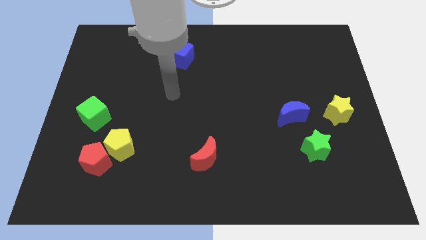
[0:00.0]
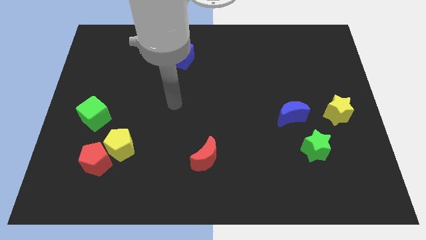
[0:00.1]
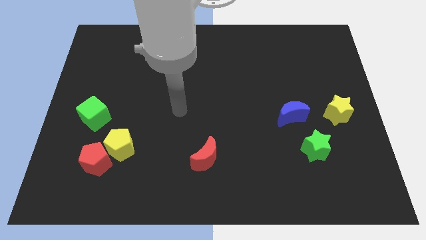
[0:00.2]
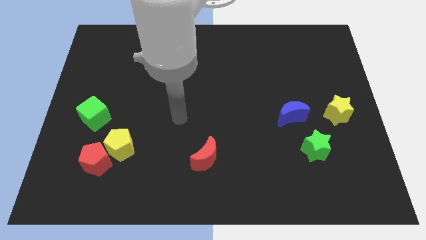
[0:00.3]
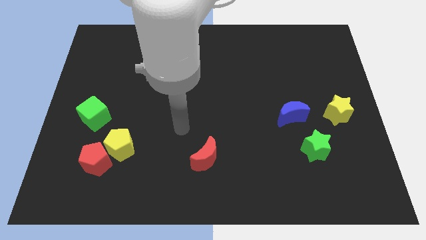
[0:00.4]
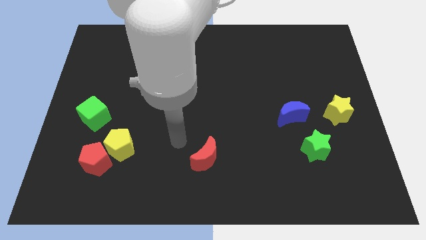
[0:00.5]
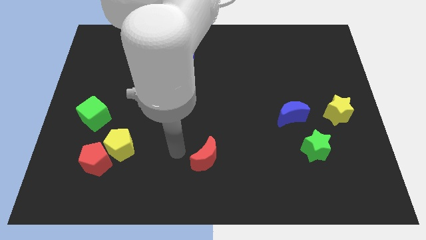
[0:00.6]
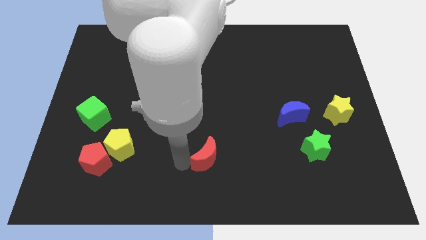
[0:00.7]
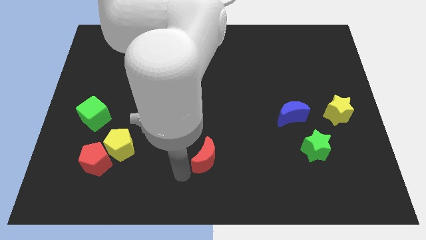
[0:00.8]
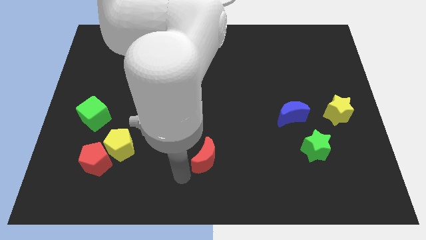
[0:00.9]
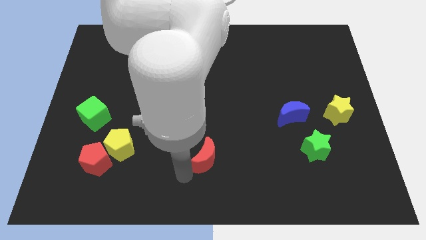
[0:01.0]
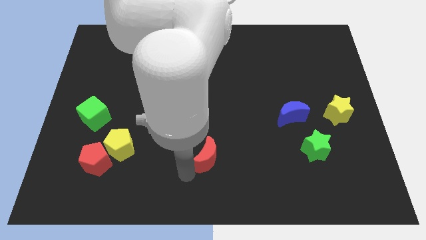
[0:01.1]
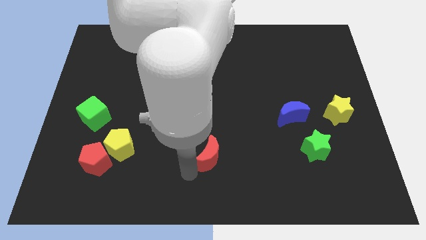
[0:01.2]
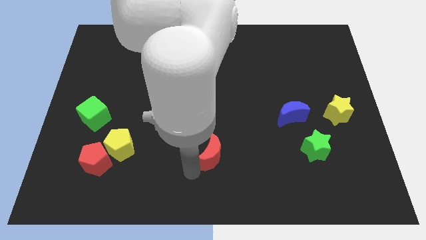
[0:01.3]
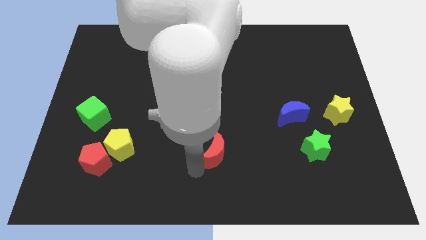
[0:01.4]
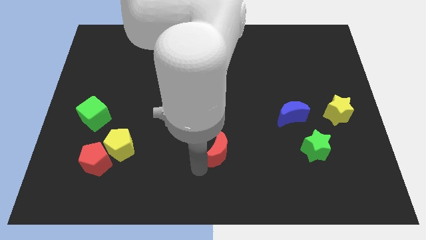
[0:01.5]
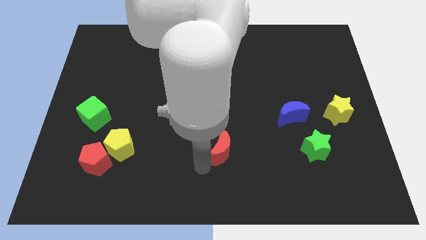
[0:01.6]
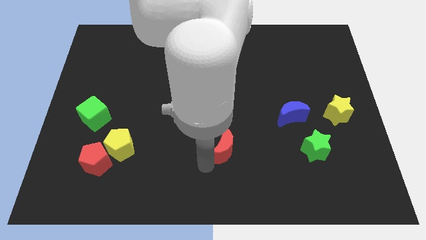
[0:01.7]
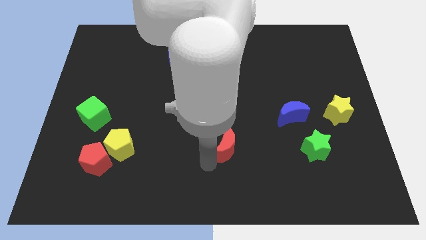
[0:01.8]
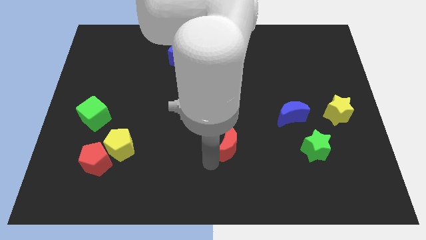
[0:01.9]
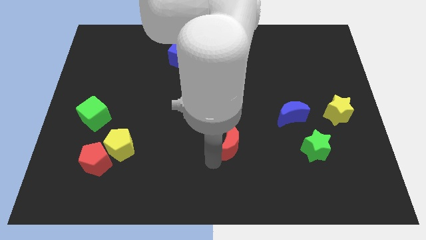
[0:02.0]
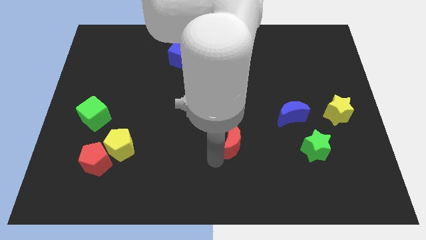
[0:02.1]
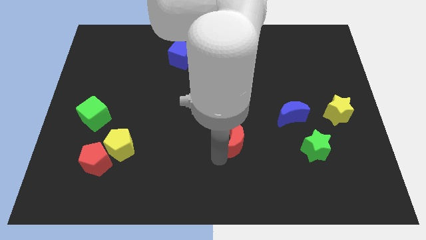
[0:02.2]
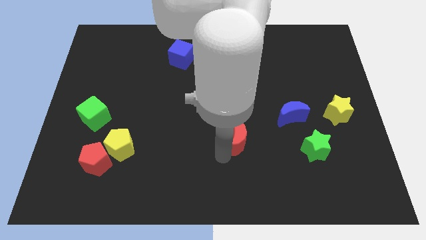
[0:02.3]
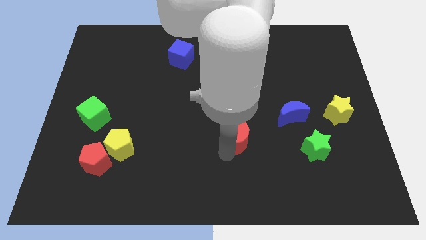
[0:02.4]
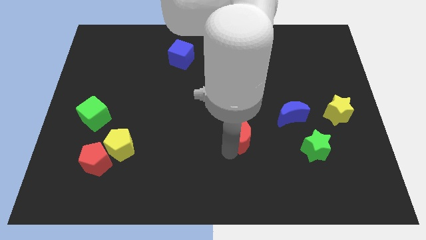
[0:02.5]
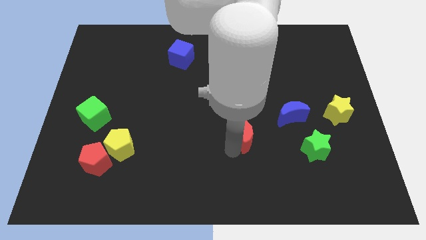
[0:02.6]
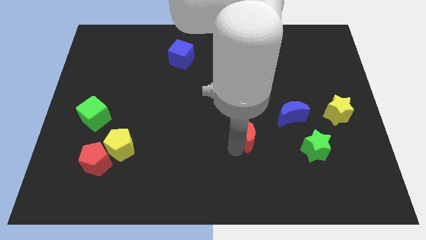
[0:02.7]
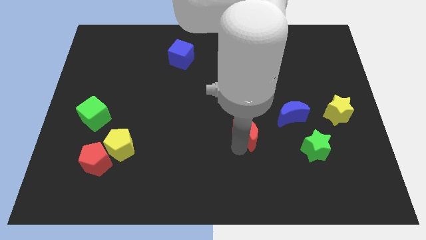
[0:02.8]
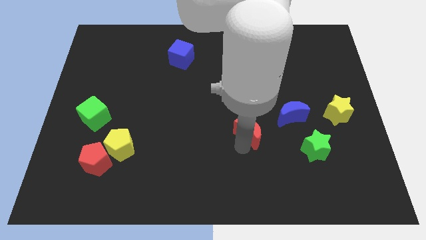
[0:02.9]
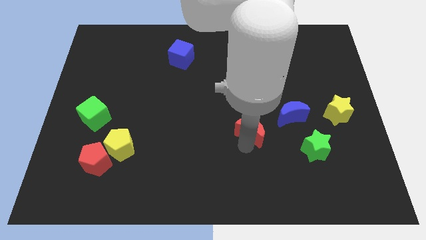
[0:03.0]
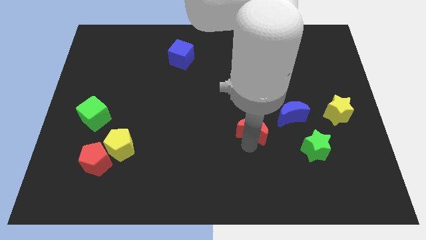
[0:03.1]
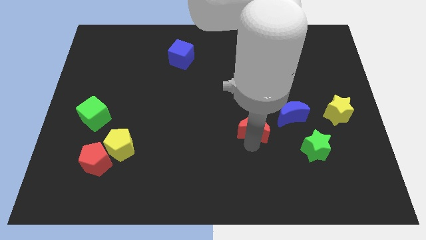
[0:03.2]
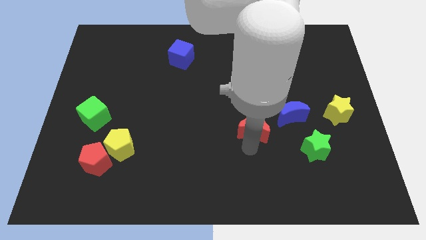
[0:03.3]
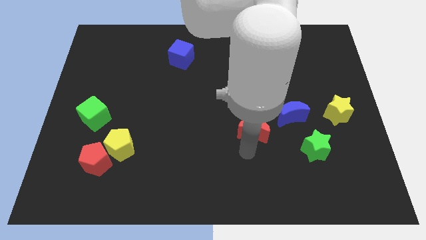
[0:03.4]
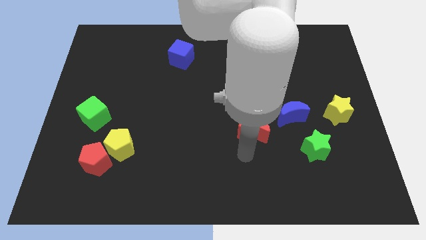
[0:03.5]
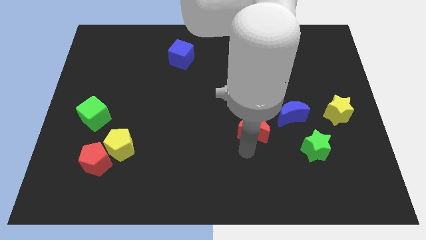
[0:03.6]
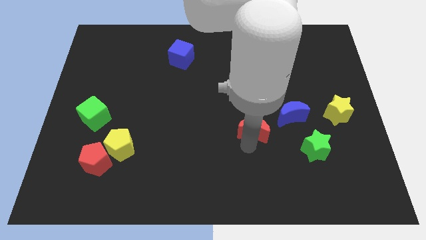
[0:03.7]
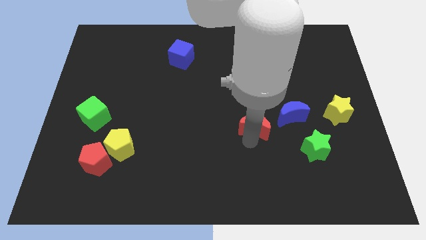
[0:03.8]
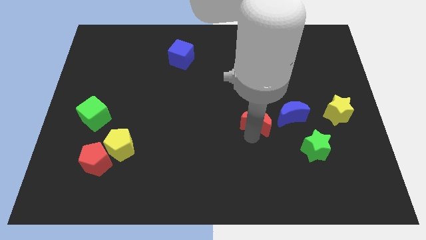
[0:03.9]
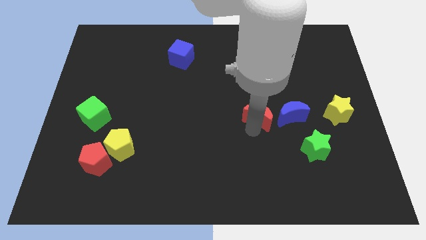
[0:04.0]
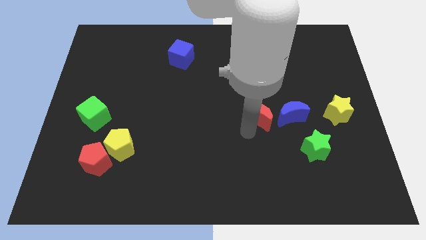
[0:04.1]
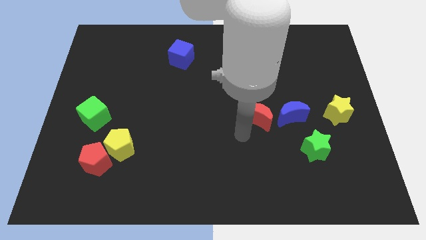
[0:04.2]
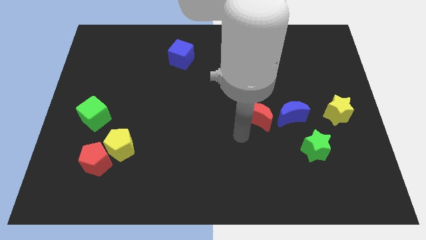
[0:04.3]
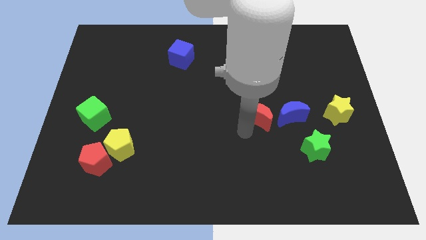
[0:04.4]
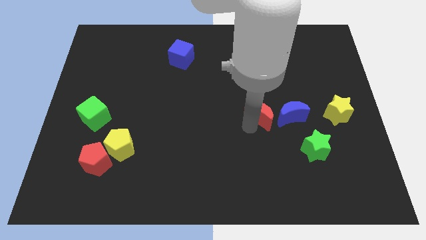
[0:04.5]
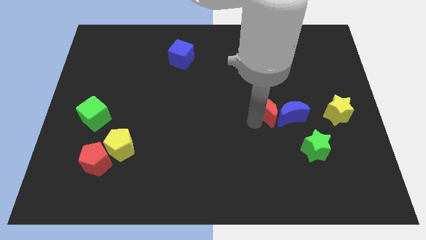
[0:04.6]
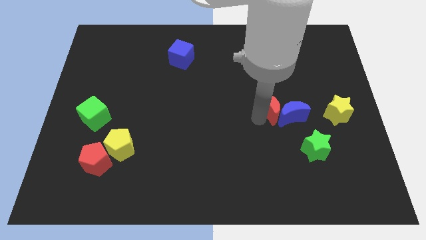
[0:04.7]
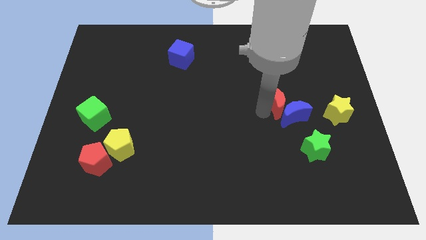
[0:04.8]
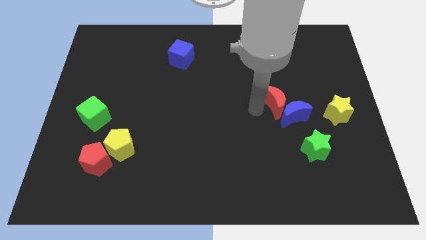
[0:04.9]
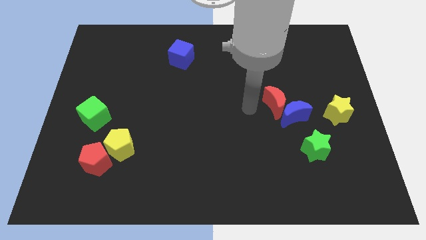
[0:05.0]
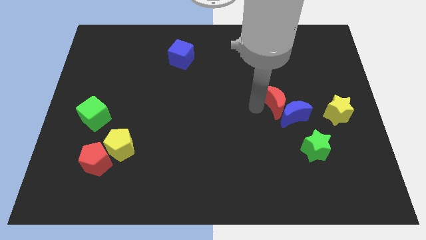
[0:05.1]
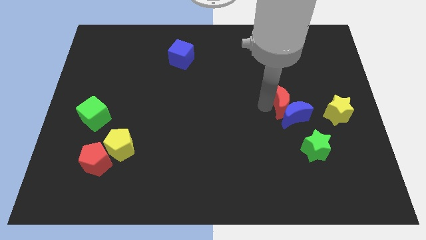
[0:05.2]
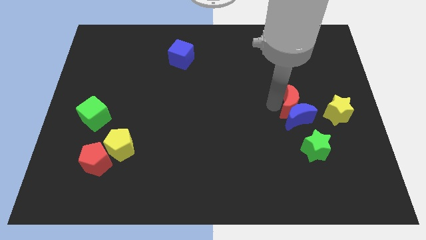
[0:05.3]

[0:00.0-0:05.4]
put the red moon to the top right side of the blue moon

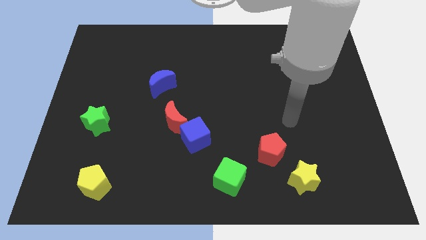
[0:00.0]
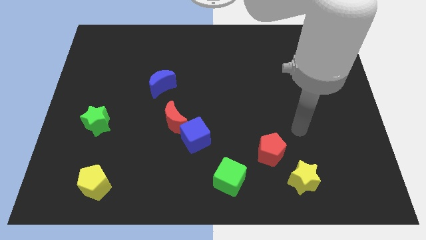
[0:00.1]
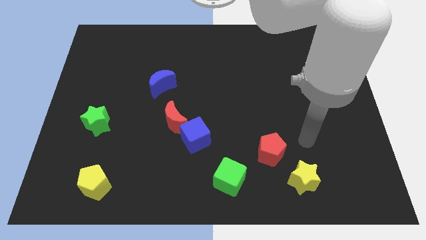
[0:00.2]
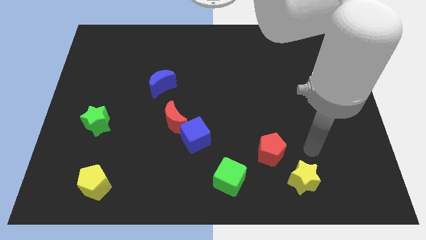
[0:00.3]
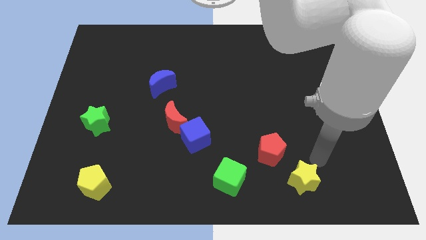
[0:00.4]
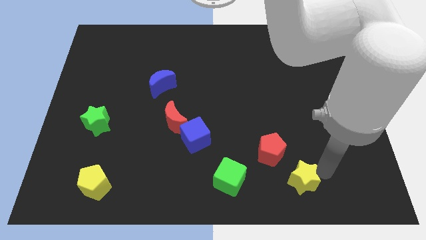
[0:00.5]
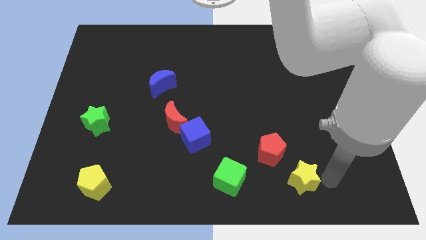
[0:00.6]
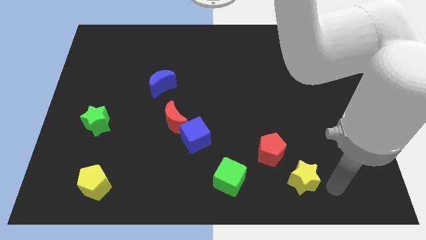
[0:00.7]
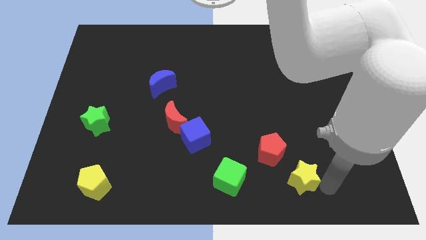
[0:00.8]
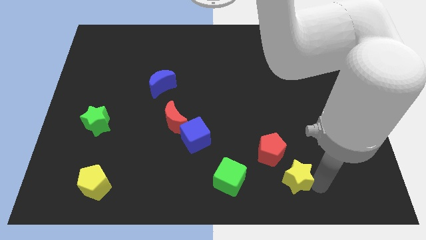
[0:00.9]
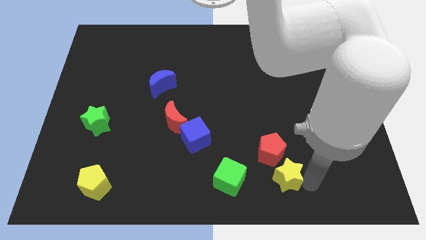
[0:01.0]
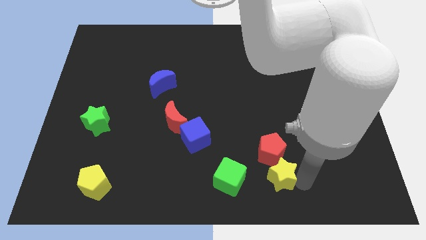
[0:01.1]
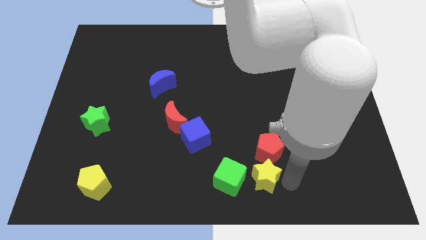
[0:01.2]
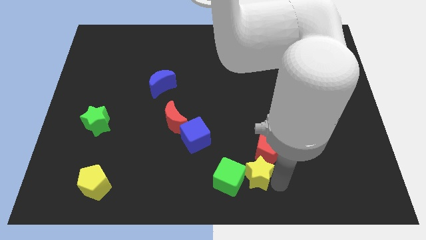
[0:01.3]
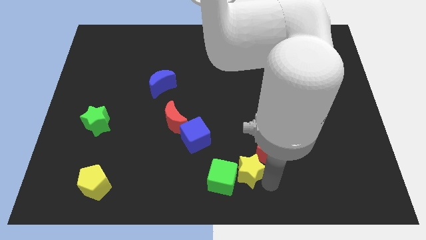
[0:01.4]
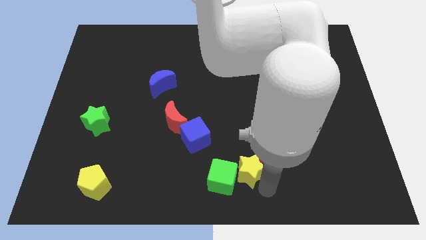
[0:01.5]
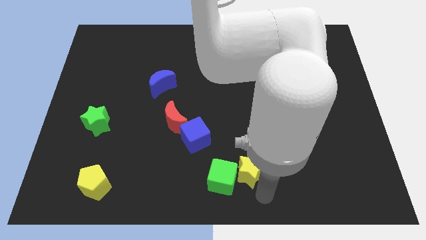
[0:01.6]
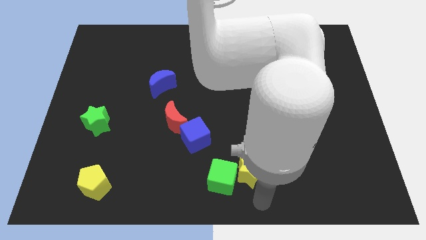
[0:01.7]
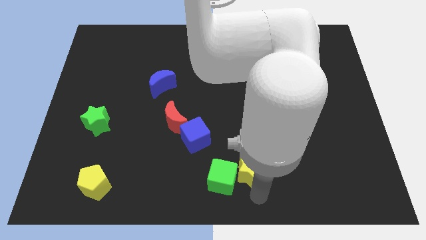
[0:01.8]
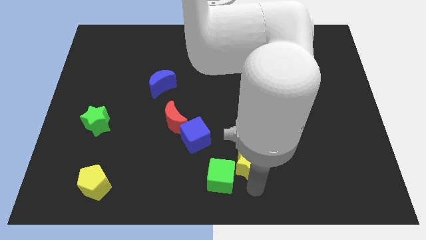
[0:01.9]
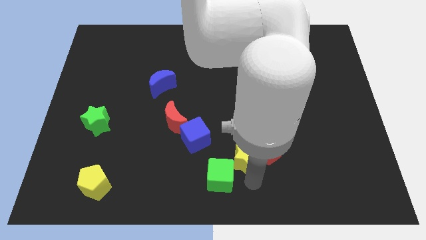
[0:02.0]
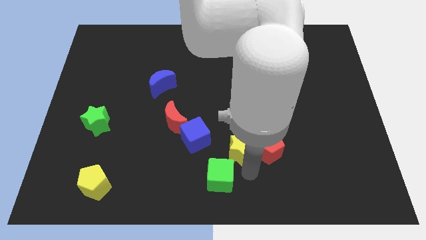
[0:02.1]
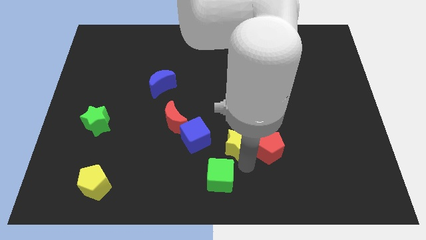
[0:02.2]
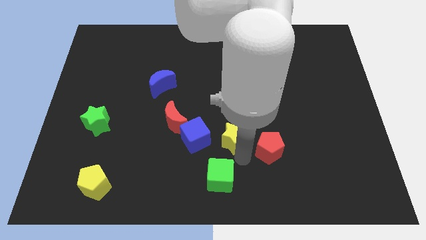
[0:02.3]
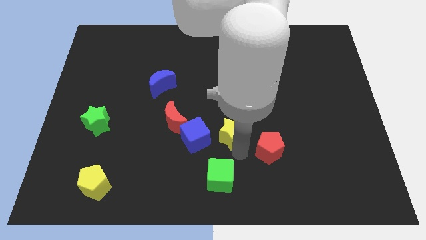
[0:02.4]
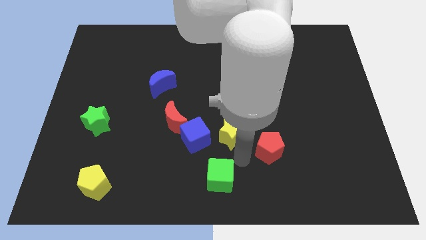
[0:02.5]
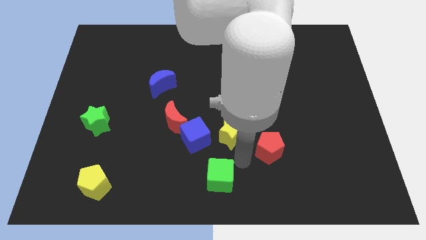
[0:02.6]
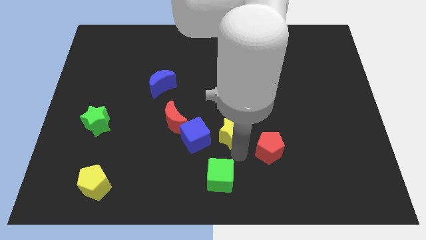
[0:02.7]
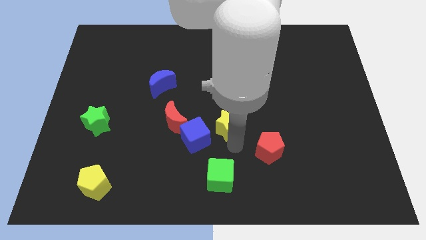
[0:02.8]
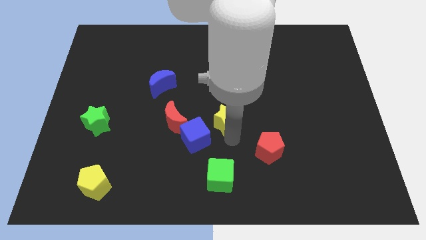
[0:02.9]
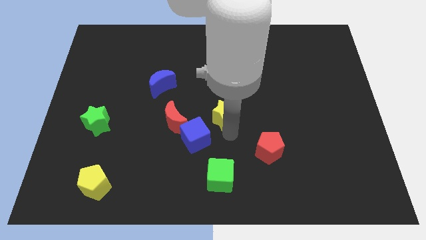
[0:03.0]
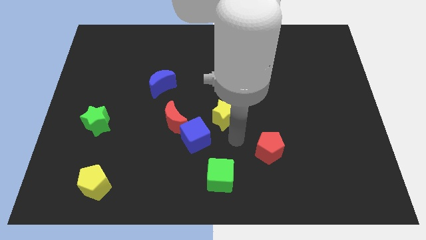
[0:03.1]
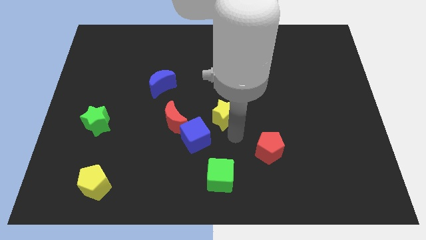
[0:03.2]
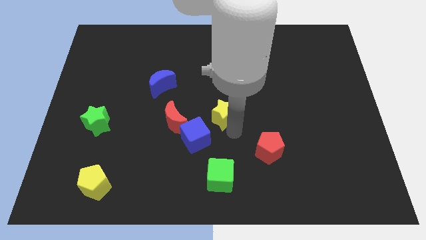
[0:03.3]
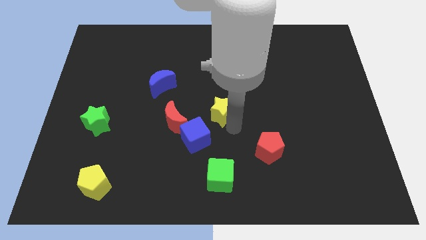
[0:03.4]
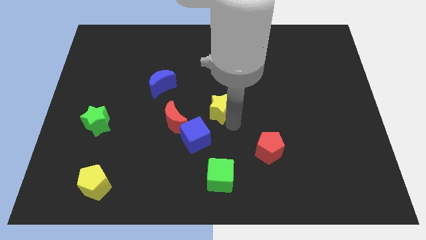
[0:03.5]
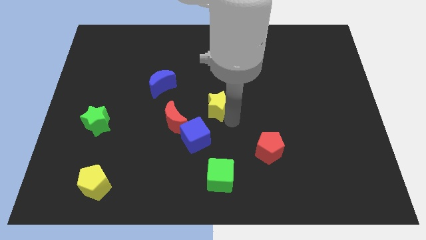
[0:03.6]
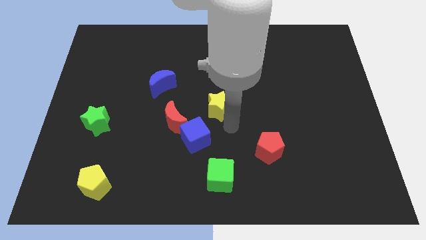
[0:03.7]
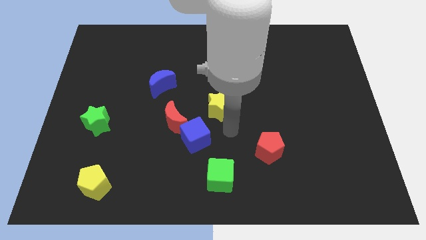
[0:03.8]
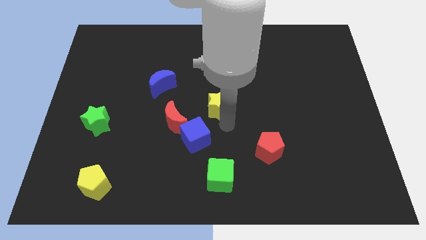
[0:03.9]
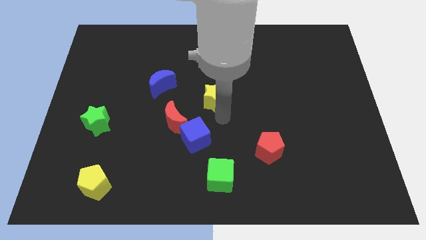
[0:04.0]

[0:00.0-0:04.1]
push the yellow star right of the blue moon
